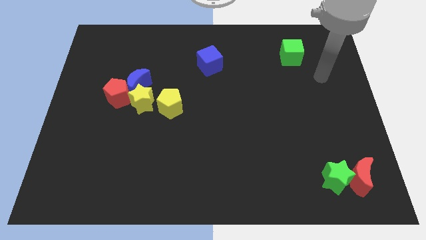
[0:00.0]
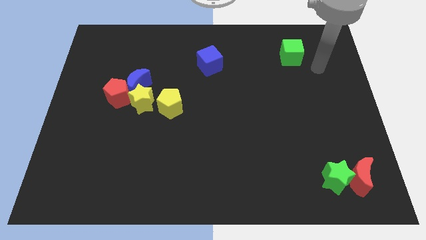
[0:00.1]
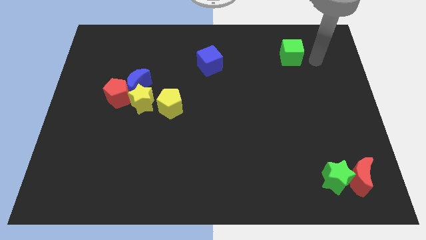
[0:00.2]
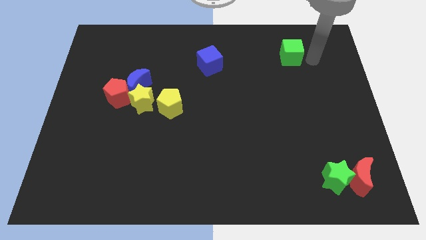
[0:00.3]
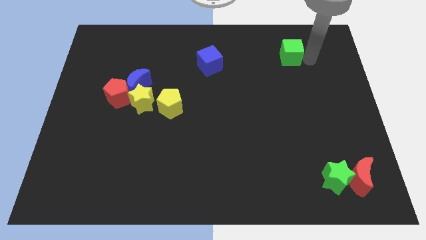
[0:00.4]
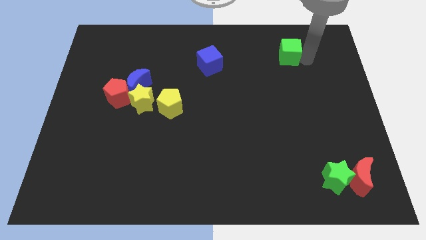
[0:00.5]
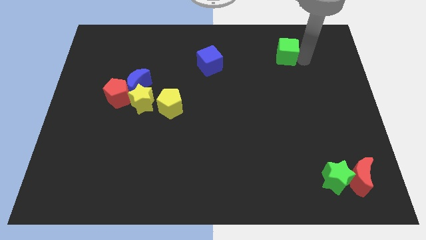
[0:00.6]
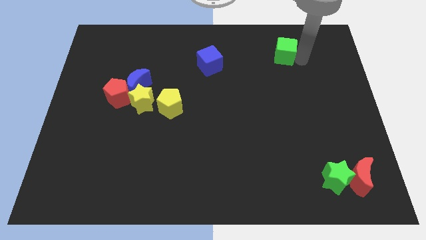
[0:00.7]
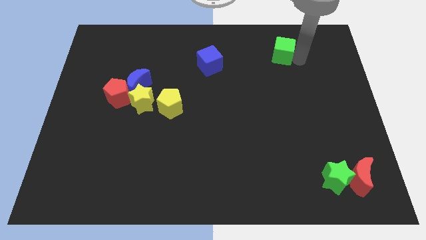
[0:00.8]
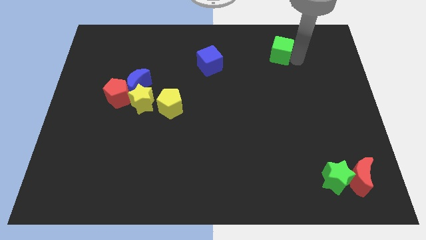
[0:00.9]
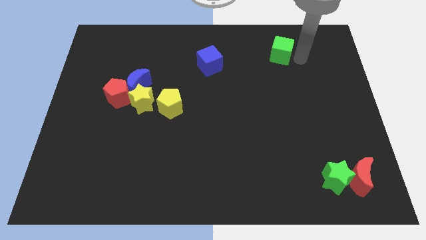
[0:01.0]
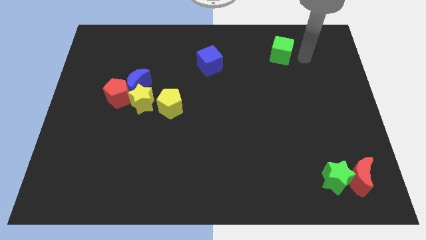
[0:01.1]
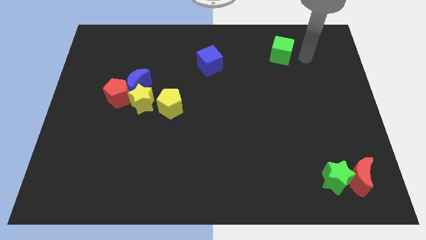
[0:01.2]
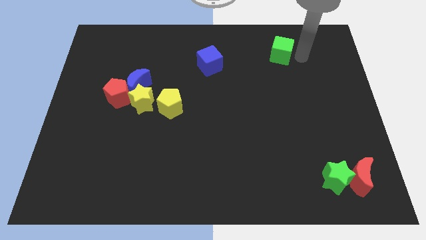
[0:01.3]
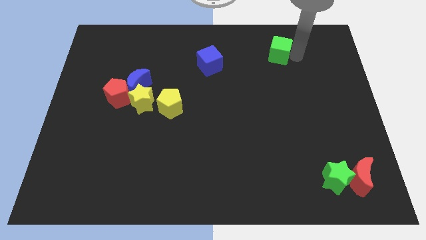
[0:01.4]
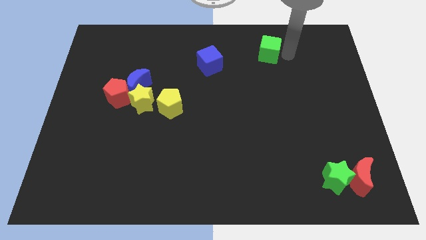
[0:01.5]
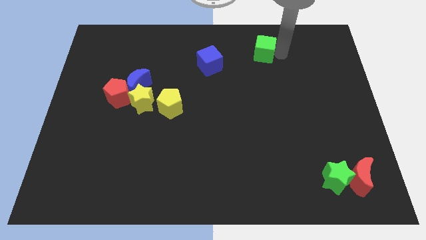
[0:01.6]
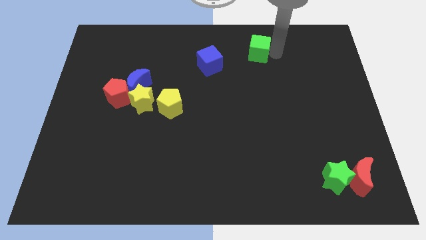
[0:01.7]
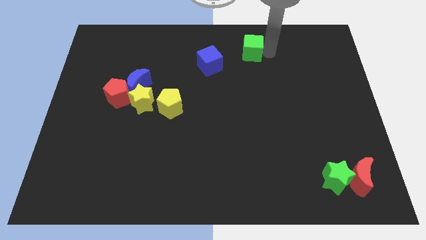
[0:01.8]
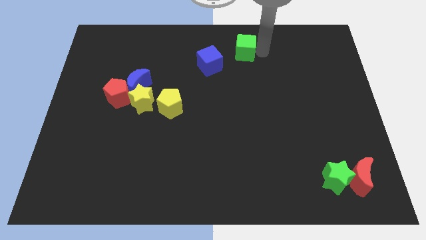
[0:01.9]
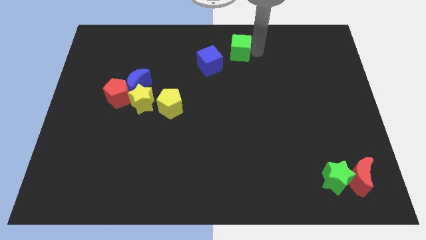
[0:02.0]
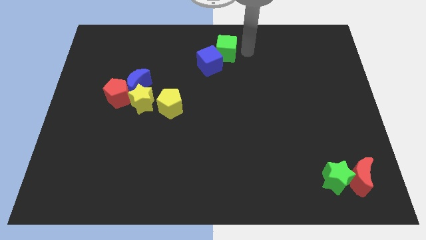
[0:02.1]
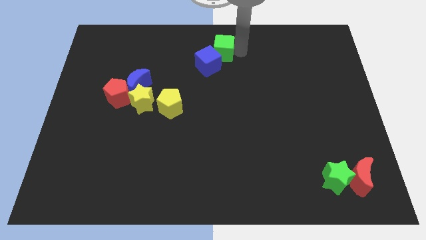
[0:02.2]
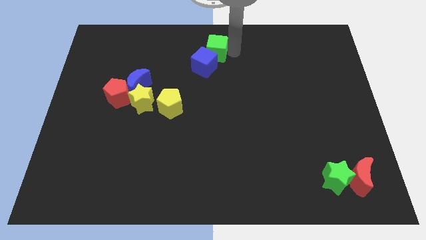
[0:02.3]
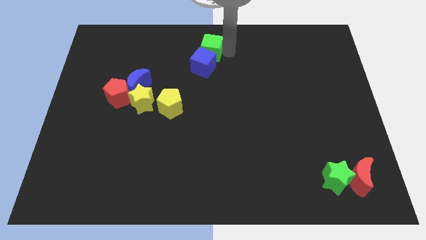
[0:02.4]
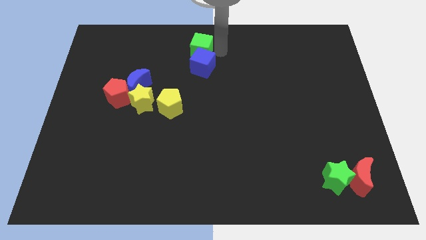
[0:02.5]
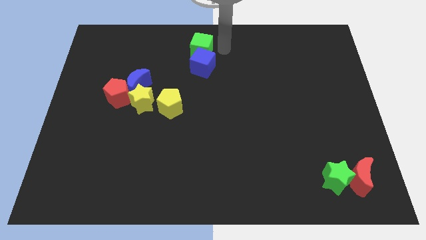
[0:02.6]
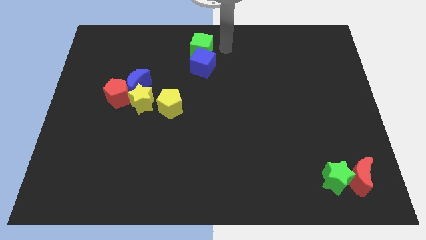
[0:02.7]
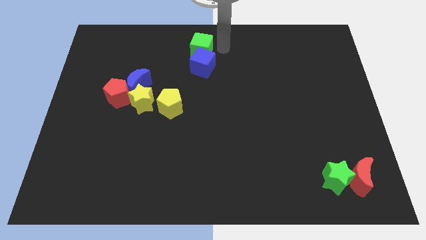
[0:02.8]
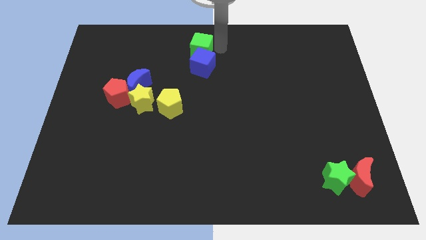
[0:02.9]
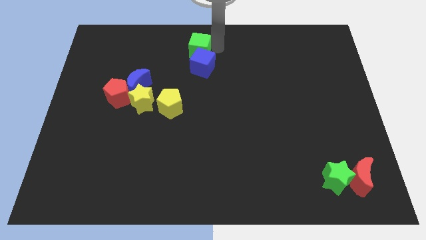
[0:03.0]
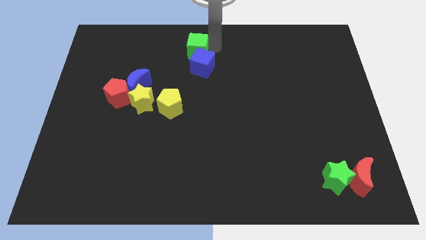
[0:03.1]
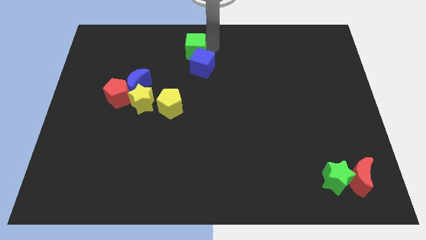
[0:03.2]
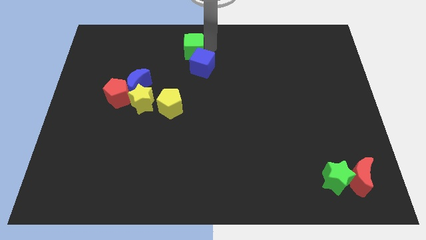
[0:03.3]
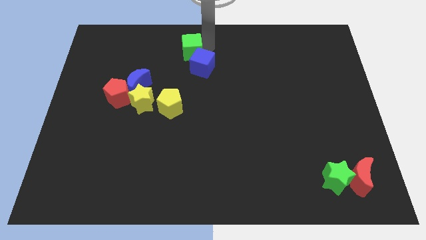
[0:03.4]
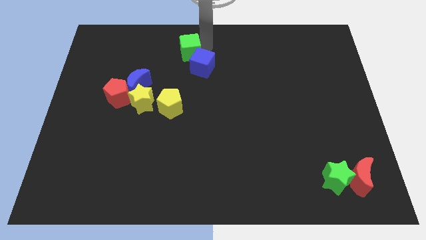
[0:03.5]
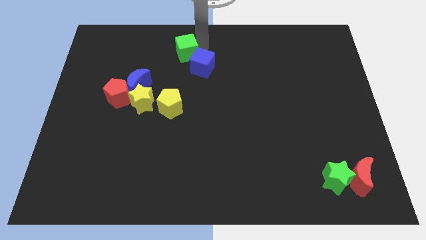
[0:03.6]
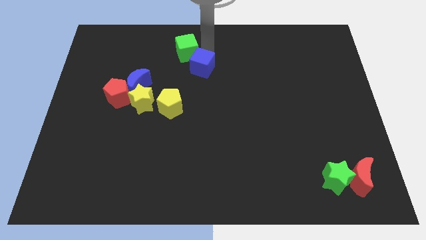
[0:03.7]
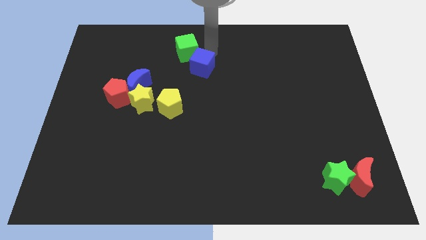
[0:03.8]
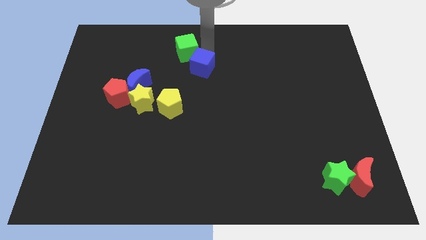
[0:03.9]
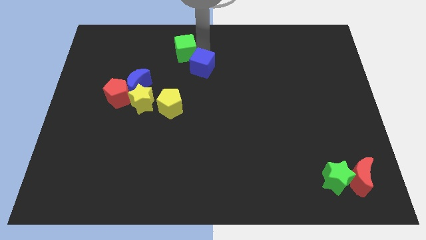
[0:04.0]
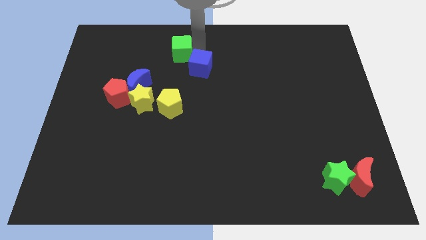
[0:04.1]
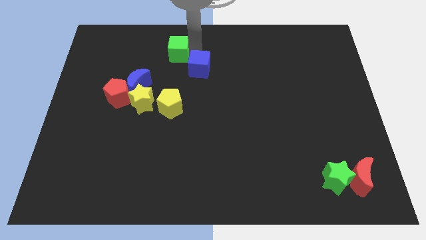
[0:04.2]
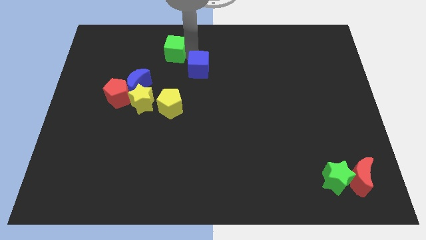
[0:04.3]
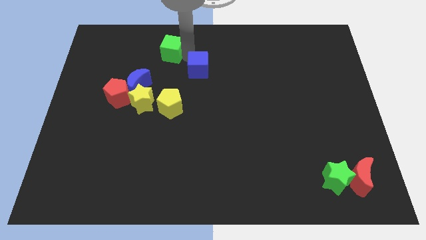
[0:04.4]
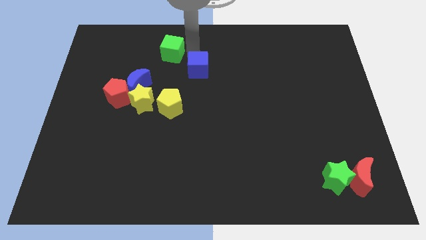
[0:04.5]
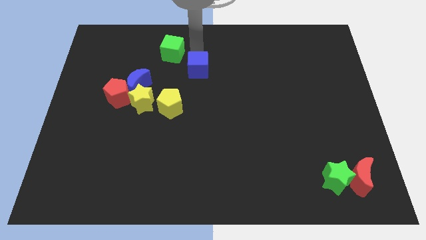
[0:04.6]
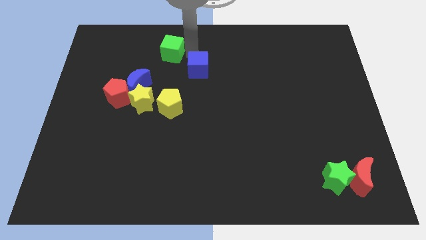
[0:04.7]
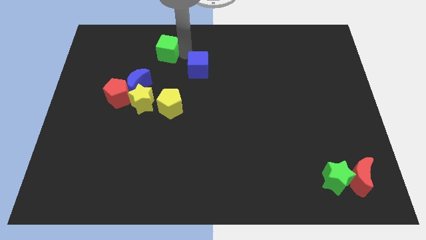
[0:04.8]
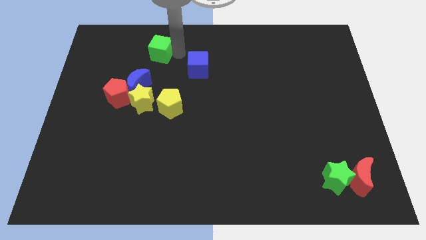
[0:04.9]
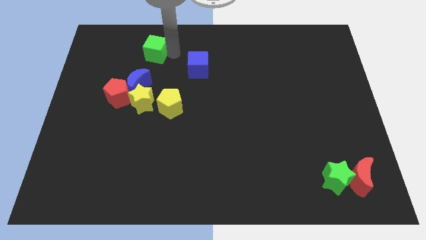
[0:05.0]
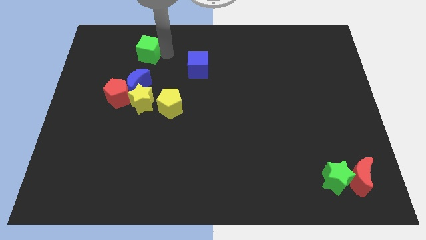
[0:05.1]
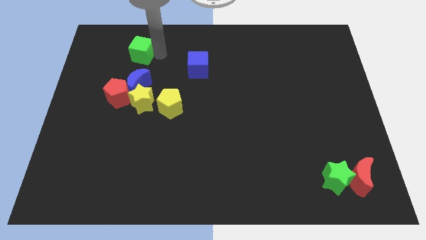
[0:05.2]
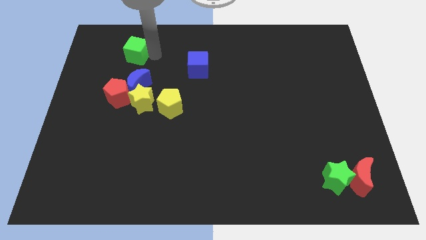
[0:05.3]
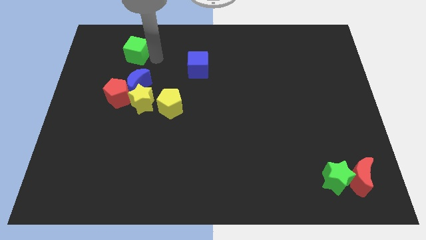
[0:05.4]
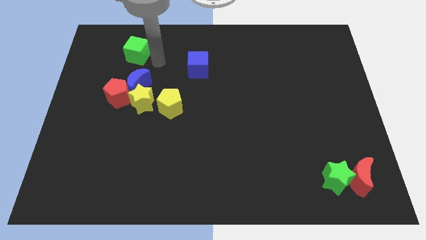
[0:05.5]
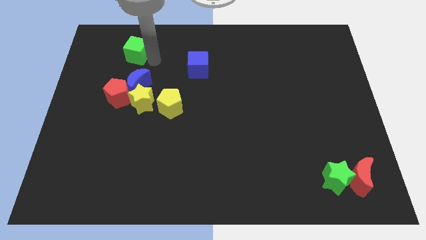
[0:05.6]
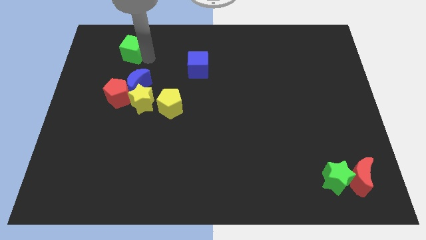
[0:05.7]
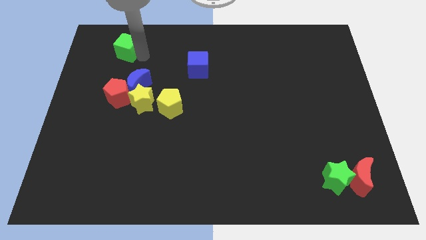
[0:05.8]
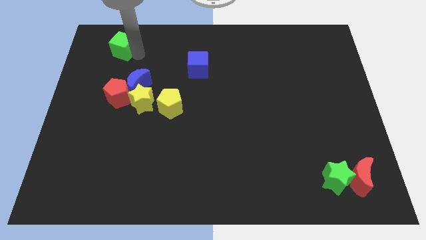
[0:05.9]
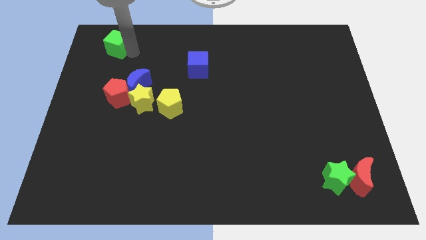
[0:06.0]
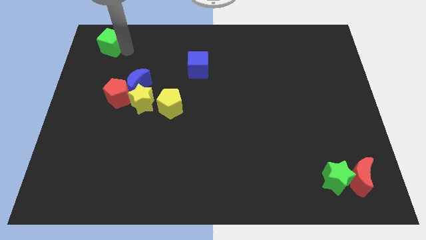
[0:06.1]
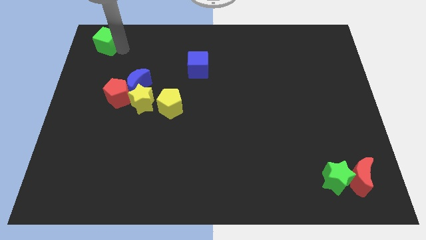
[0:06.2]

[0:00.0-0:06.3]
push the green cube to the top left corner

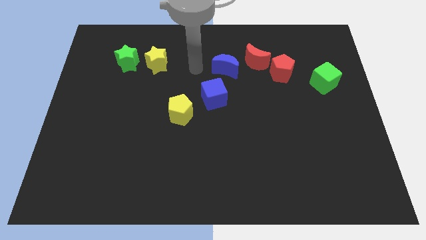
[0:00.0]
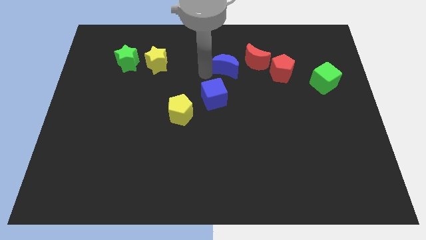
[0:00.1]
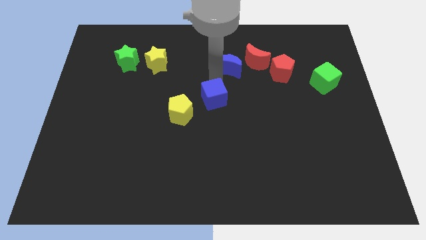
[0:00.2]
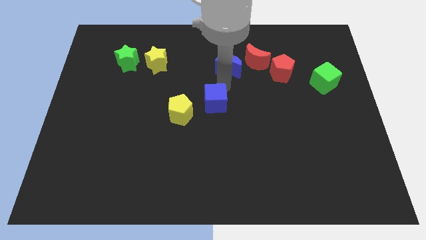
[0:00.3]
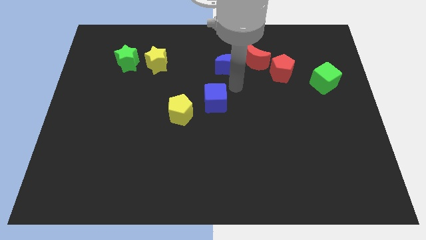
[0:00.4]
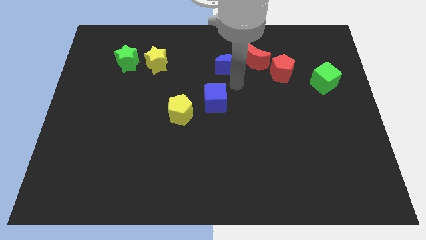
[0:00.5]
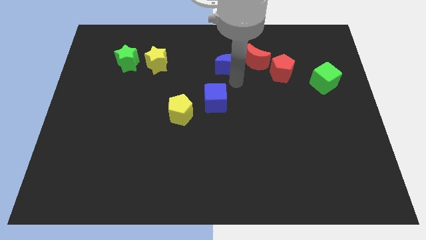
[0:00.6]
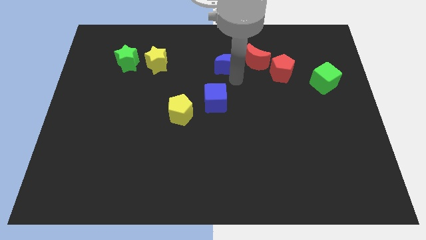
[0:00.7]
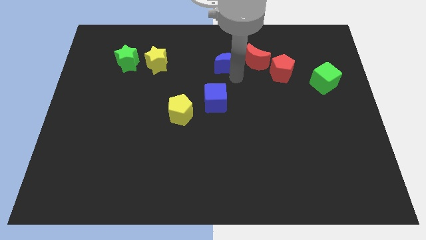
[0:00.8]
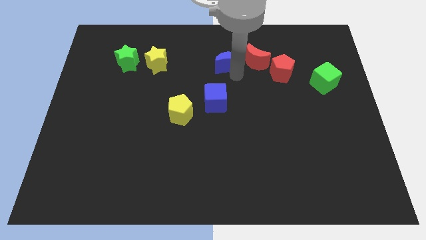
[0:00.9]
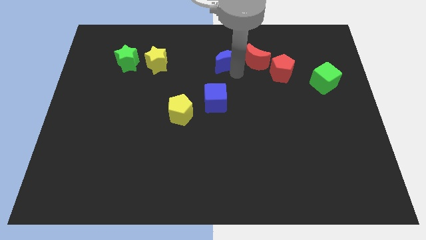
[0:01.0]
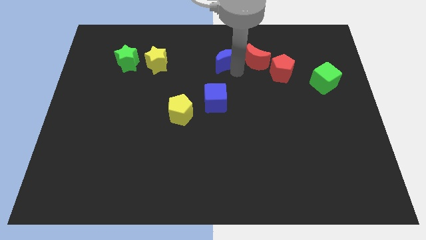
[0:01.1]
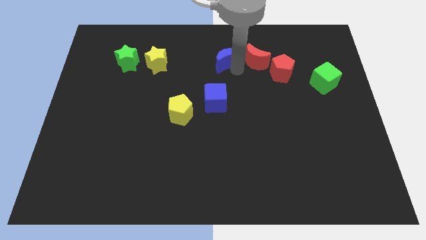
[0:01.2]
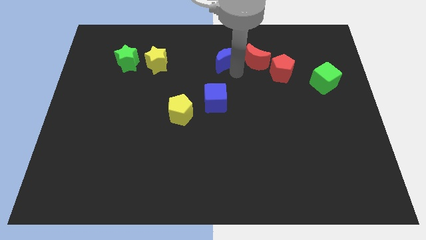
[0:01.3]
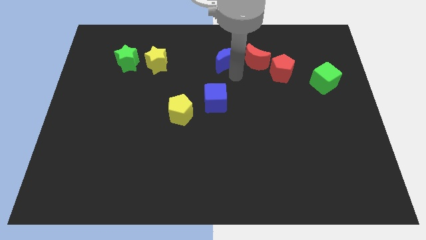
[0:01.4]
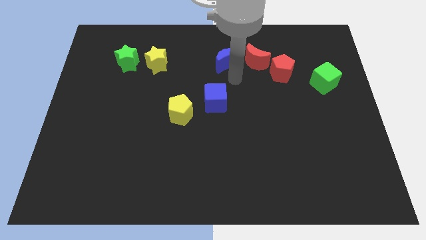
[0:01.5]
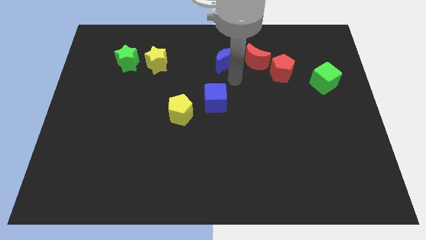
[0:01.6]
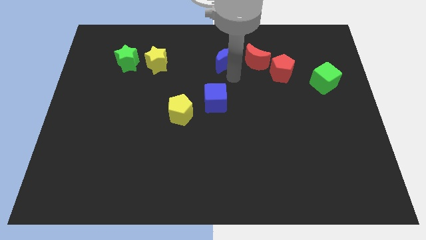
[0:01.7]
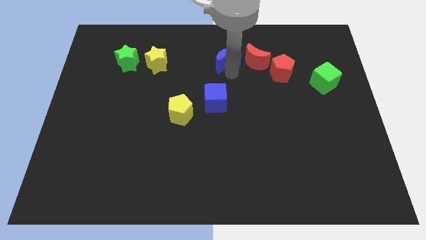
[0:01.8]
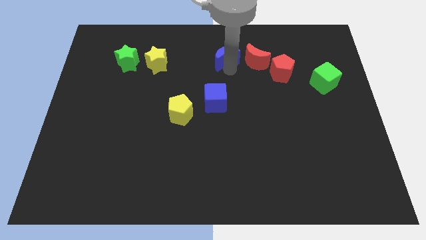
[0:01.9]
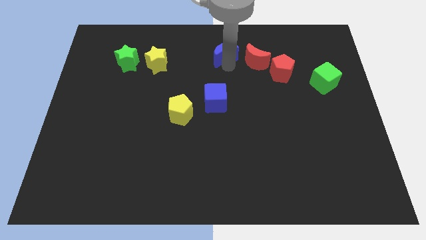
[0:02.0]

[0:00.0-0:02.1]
push the blue moon to the top
